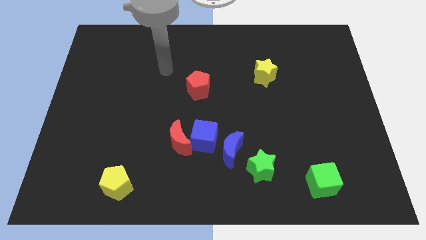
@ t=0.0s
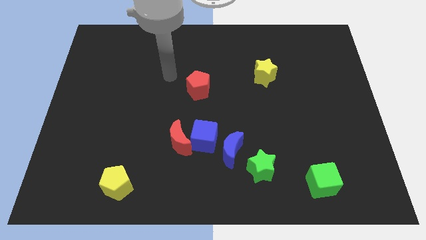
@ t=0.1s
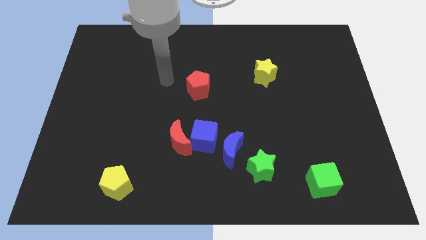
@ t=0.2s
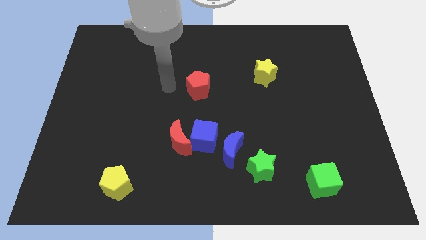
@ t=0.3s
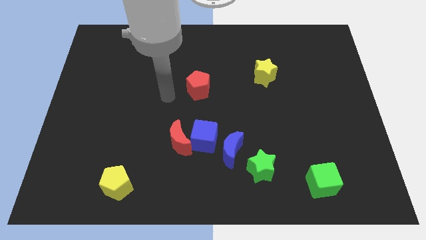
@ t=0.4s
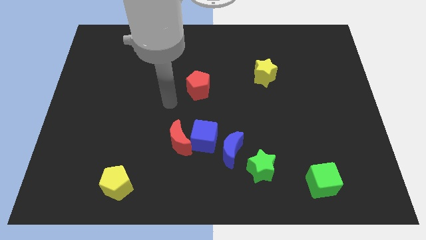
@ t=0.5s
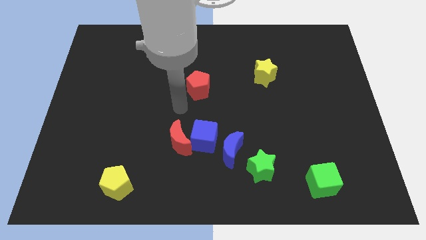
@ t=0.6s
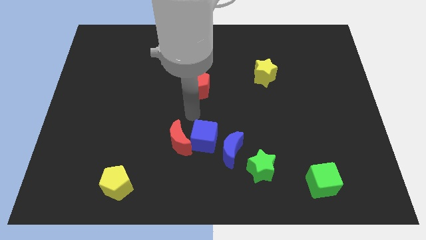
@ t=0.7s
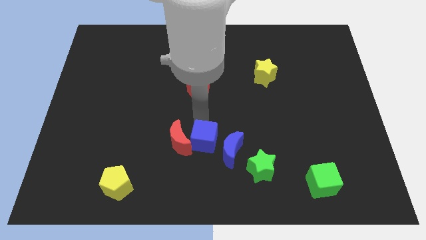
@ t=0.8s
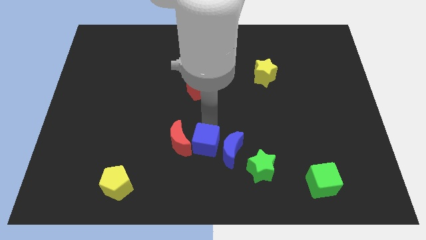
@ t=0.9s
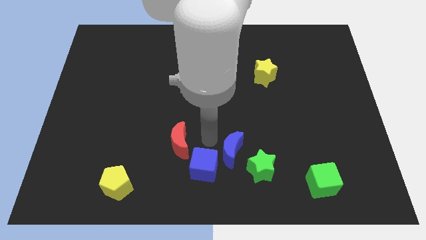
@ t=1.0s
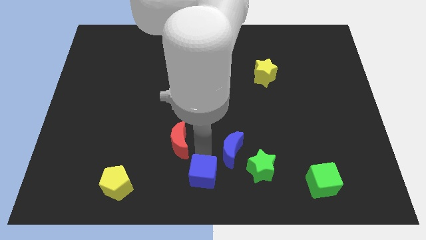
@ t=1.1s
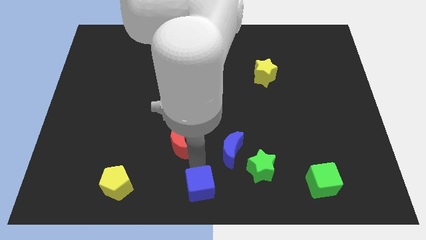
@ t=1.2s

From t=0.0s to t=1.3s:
separate the red moon from the blue cube

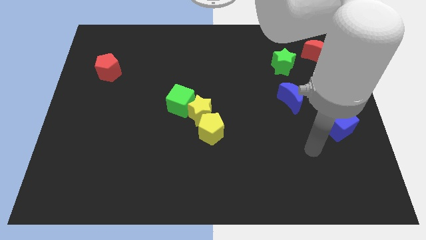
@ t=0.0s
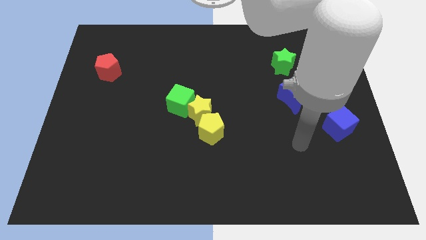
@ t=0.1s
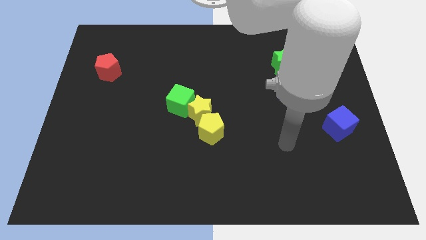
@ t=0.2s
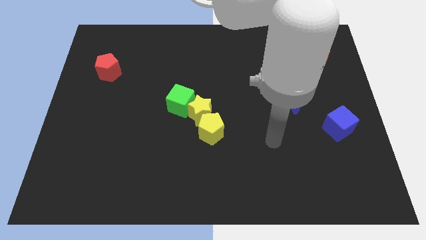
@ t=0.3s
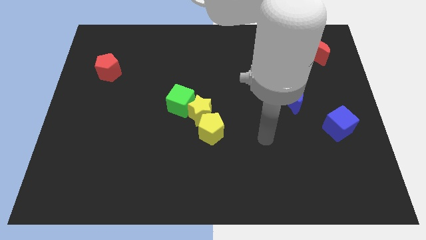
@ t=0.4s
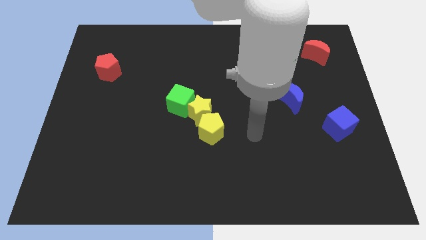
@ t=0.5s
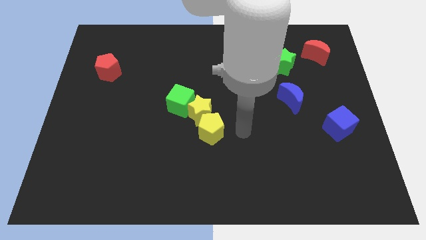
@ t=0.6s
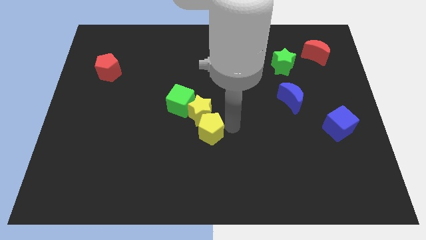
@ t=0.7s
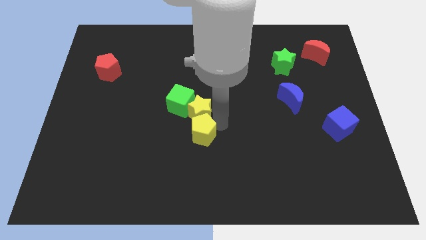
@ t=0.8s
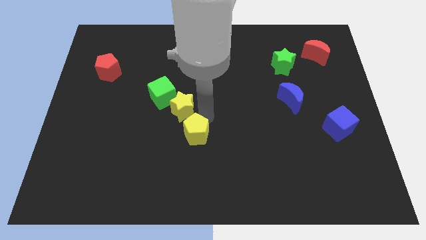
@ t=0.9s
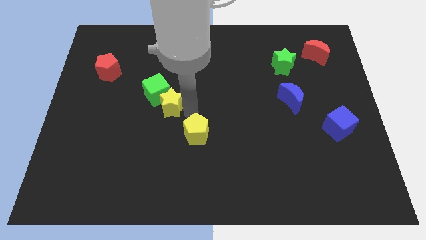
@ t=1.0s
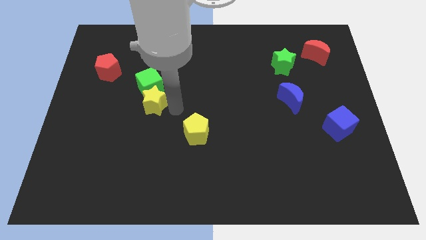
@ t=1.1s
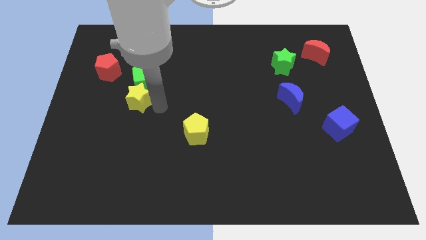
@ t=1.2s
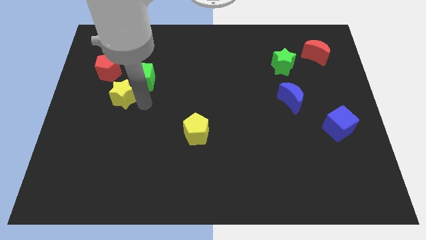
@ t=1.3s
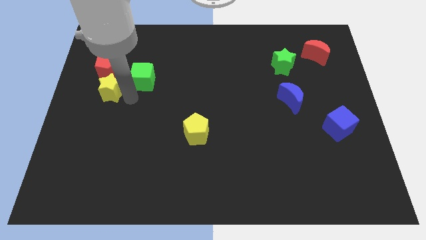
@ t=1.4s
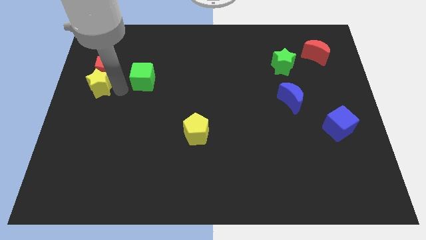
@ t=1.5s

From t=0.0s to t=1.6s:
separate the green cube from the yellow star

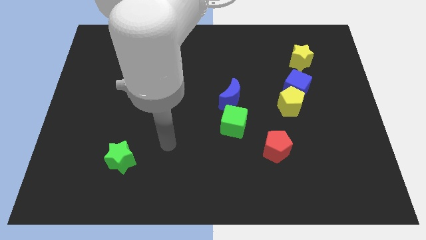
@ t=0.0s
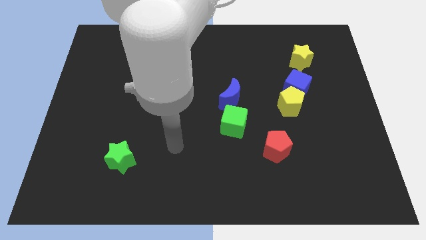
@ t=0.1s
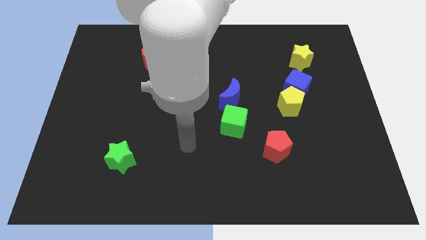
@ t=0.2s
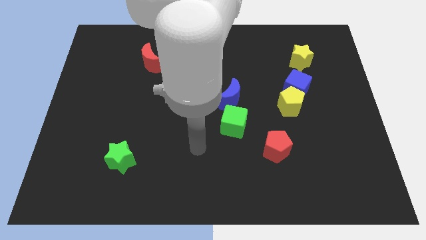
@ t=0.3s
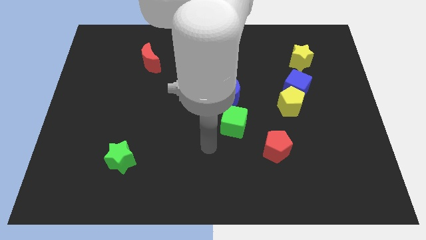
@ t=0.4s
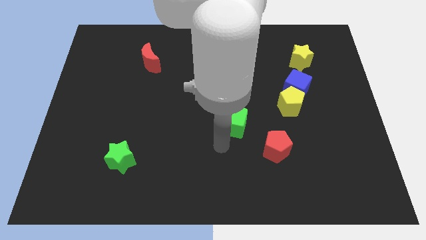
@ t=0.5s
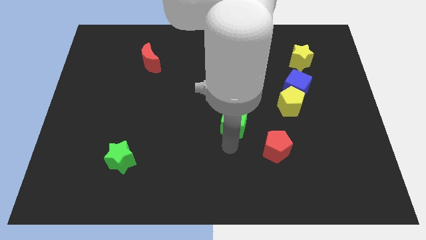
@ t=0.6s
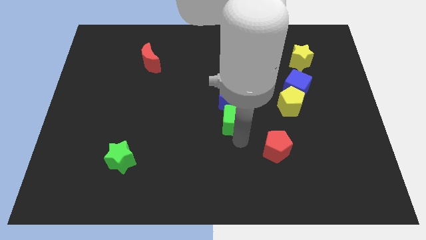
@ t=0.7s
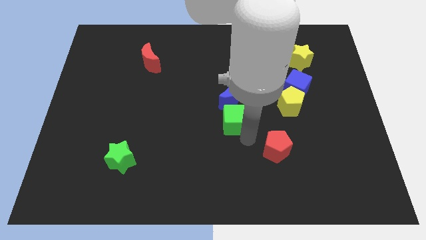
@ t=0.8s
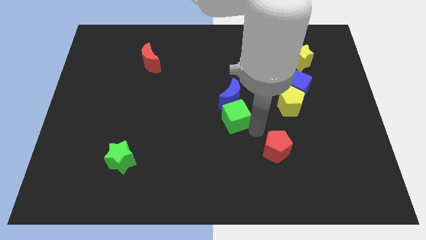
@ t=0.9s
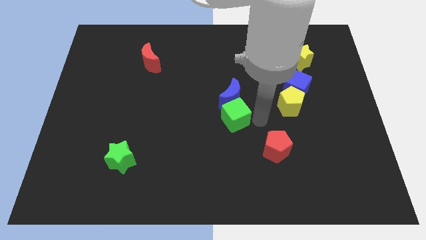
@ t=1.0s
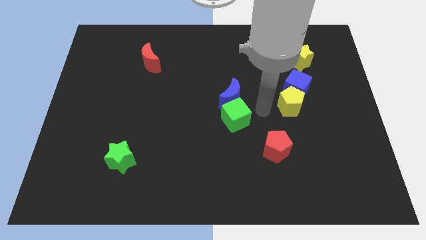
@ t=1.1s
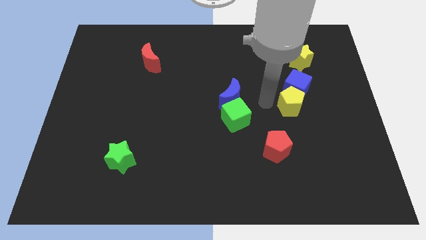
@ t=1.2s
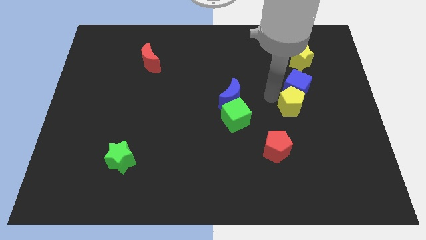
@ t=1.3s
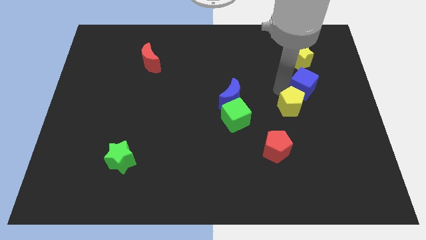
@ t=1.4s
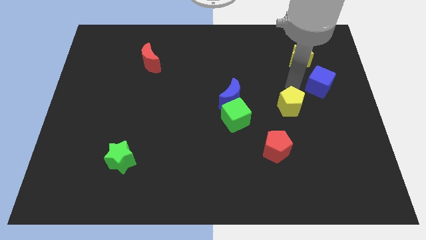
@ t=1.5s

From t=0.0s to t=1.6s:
separate the yellow pentagon from the blue cube

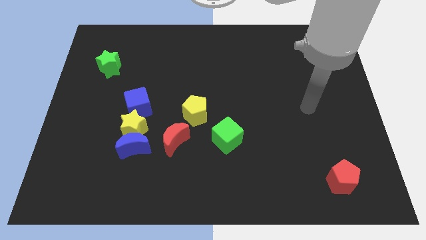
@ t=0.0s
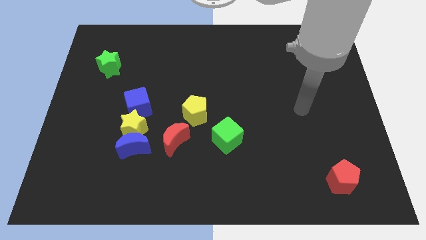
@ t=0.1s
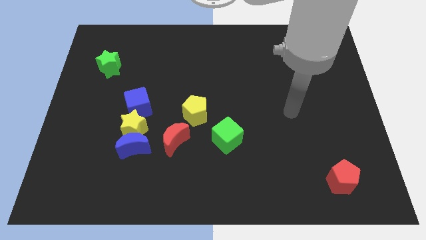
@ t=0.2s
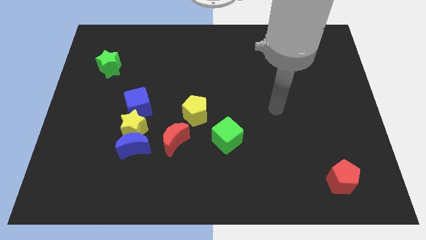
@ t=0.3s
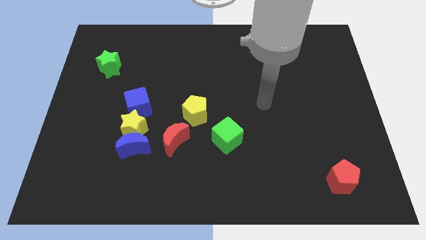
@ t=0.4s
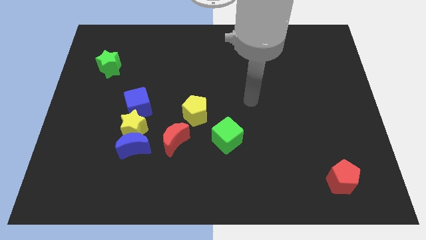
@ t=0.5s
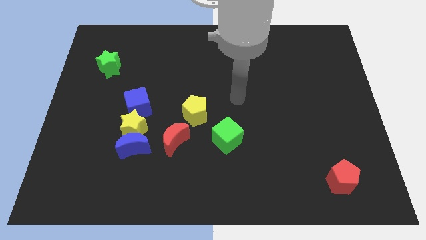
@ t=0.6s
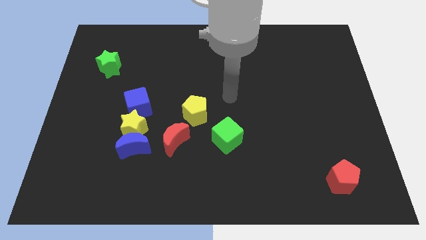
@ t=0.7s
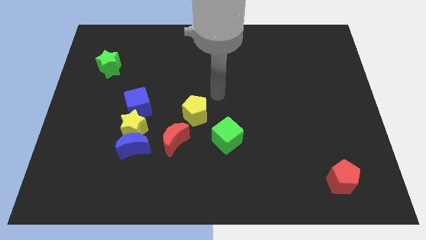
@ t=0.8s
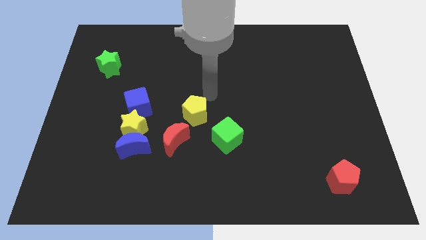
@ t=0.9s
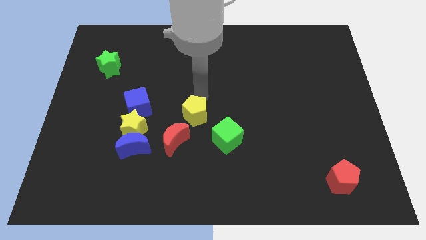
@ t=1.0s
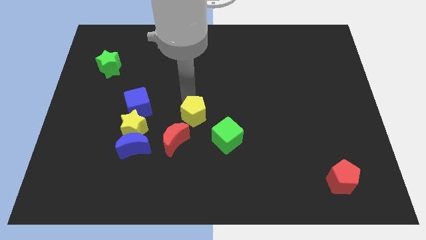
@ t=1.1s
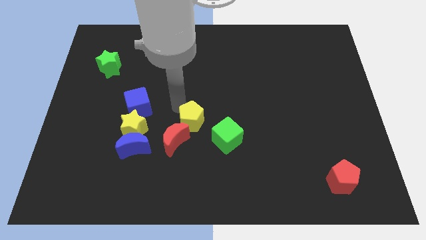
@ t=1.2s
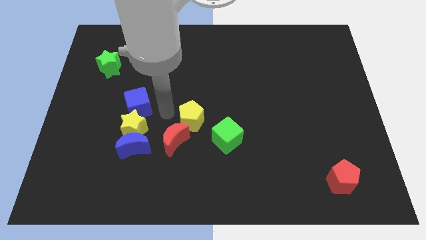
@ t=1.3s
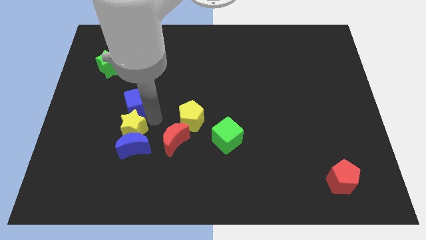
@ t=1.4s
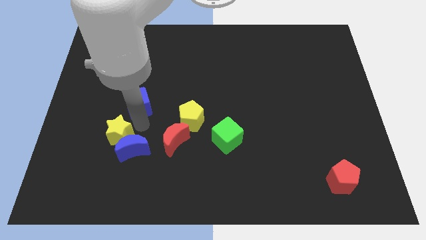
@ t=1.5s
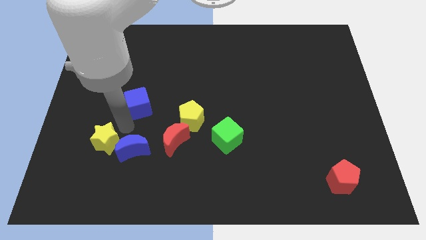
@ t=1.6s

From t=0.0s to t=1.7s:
move the blue cube away from the yellow star

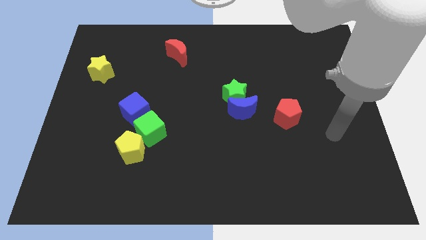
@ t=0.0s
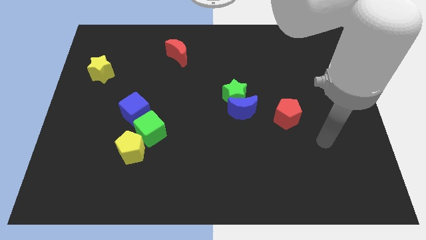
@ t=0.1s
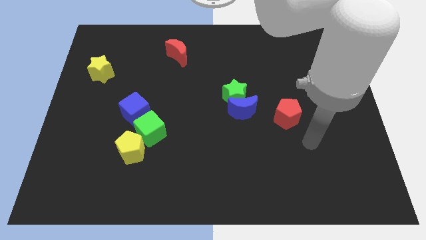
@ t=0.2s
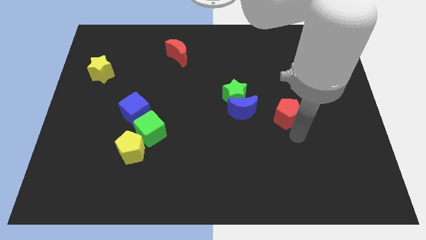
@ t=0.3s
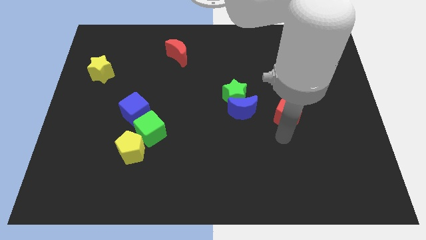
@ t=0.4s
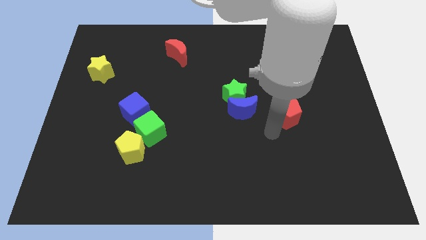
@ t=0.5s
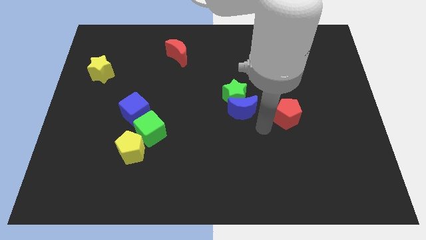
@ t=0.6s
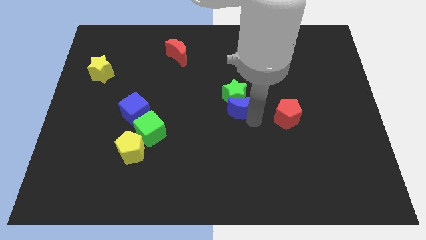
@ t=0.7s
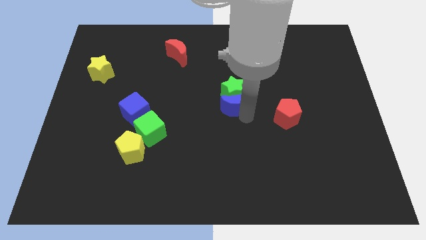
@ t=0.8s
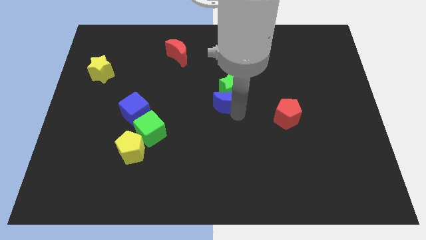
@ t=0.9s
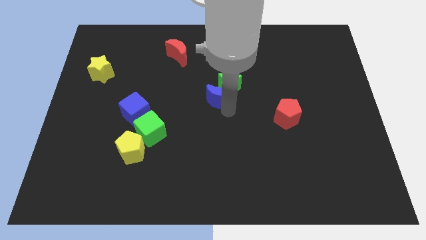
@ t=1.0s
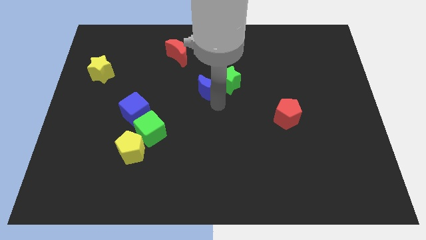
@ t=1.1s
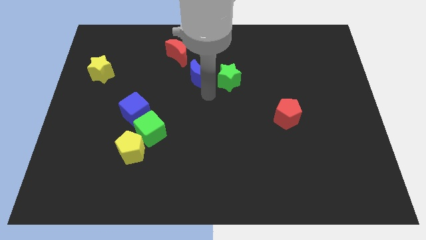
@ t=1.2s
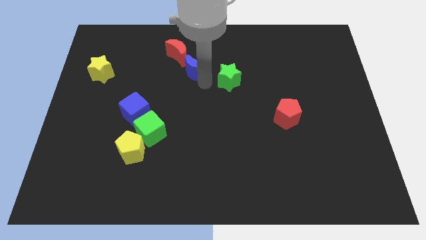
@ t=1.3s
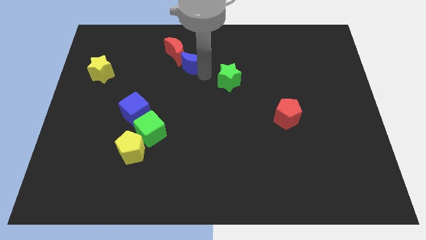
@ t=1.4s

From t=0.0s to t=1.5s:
move the green star away from the blue moon

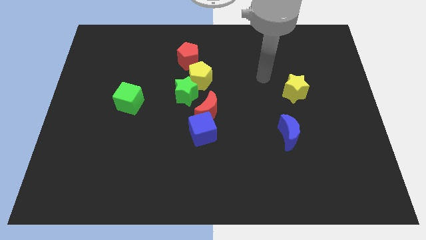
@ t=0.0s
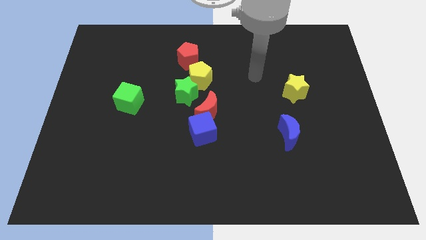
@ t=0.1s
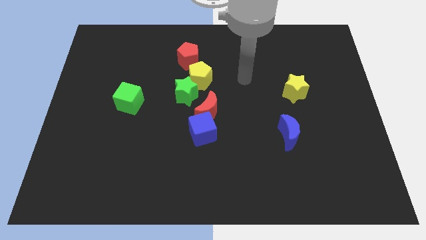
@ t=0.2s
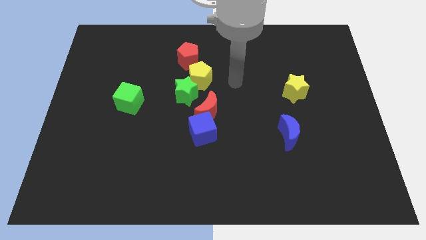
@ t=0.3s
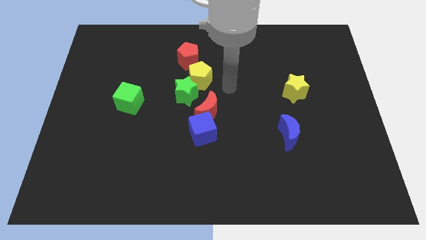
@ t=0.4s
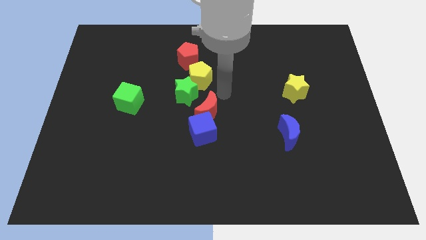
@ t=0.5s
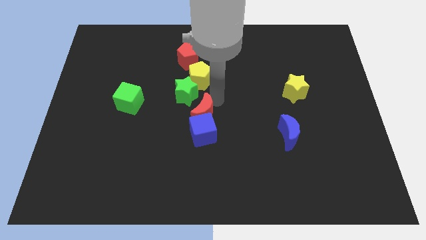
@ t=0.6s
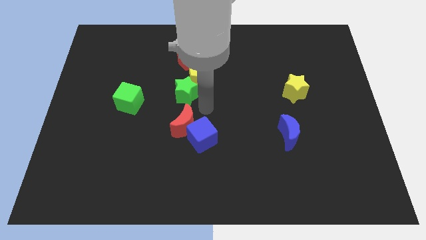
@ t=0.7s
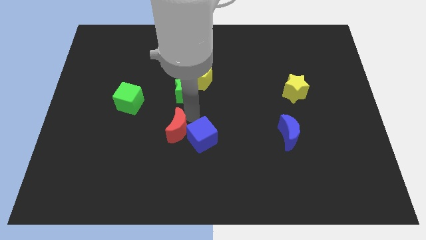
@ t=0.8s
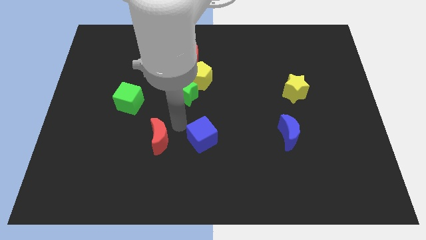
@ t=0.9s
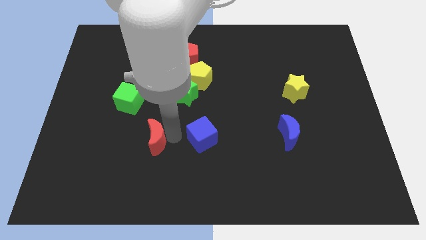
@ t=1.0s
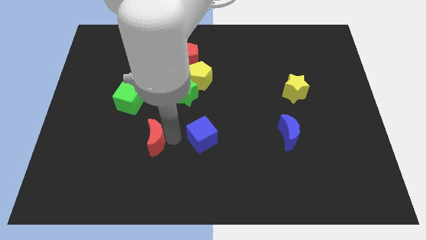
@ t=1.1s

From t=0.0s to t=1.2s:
separate the blue cube from the red moon

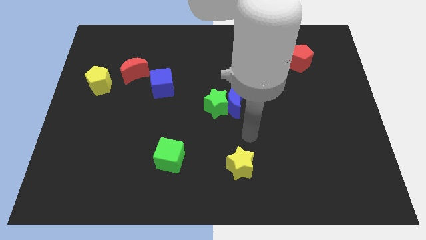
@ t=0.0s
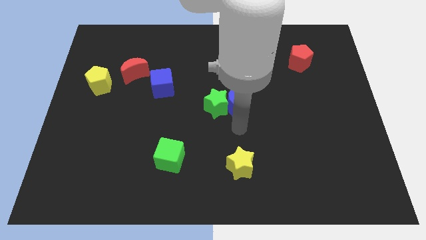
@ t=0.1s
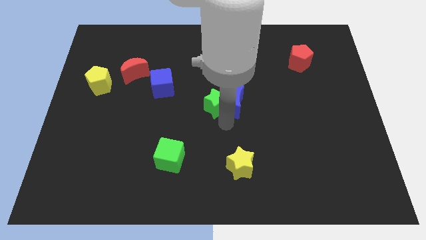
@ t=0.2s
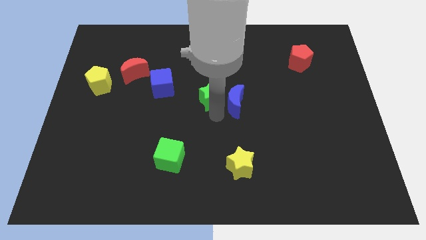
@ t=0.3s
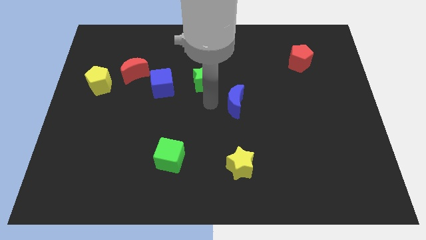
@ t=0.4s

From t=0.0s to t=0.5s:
separate the blue moon from the green star
